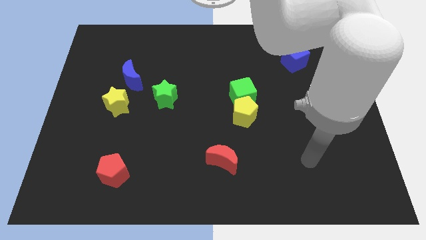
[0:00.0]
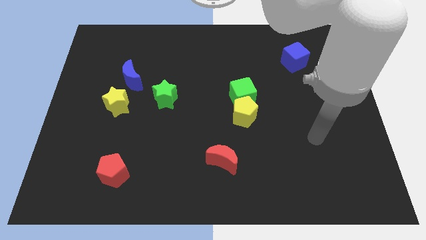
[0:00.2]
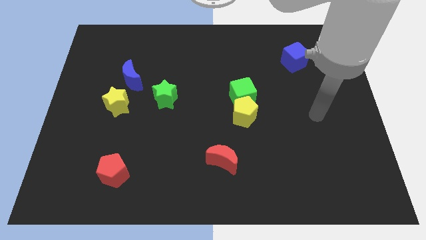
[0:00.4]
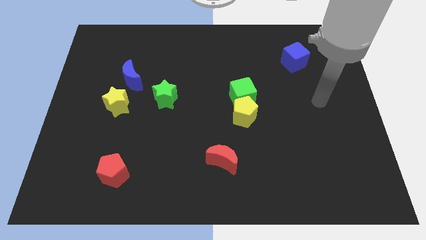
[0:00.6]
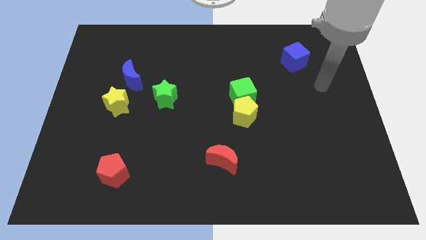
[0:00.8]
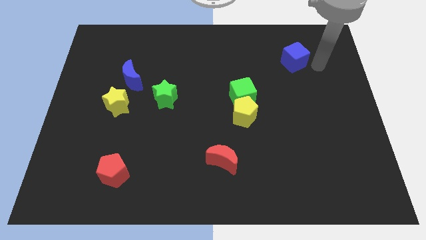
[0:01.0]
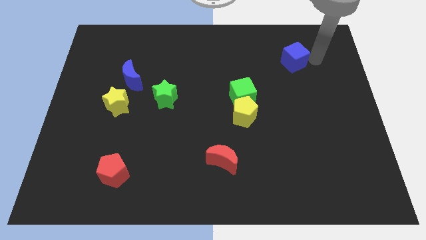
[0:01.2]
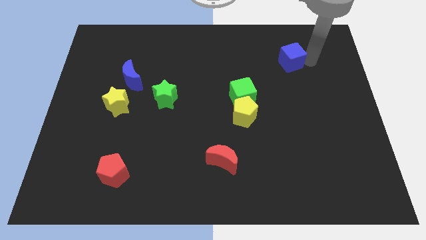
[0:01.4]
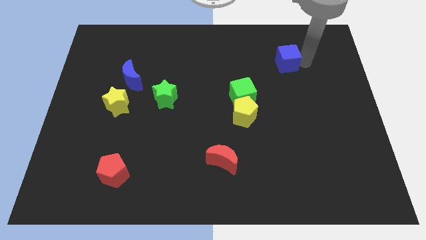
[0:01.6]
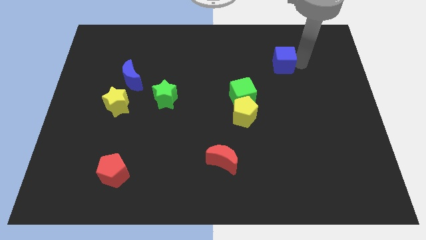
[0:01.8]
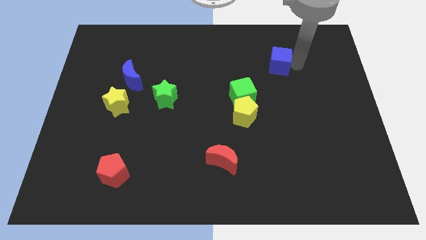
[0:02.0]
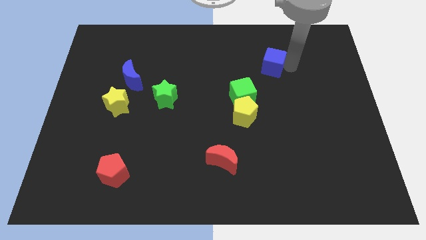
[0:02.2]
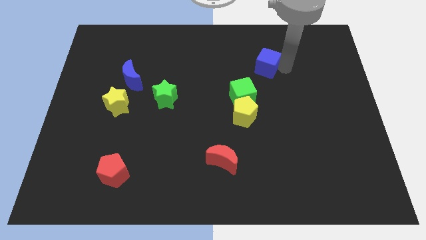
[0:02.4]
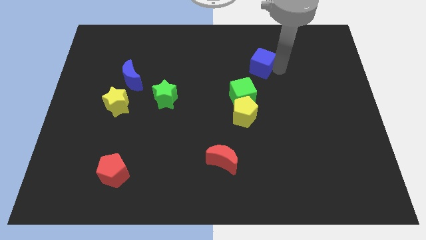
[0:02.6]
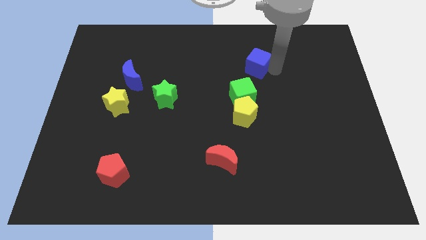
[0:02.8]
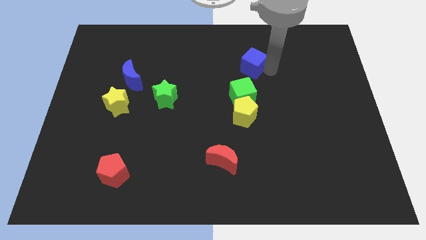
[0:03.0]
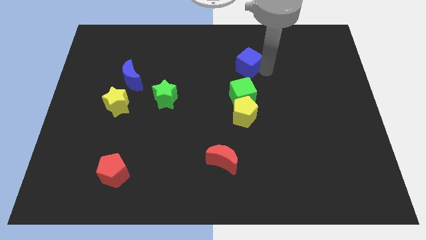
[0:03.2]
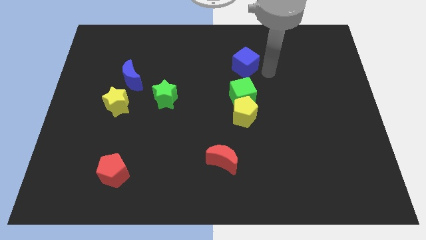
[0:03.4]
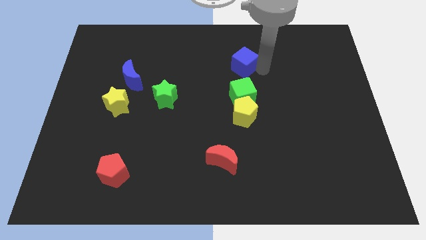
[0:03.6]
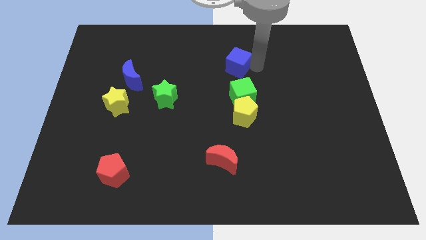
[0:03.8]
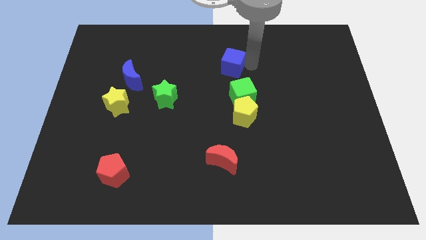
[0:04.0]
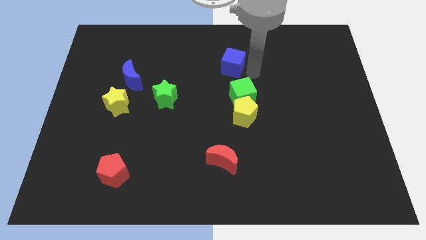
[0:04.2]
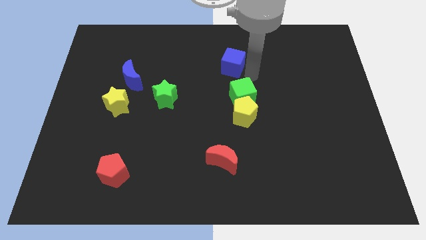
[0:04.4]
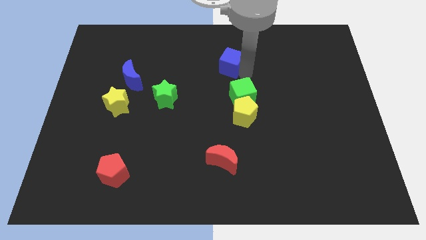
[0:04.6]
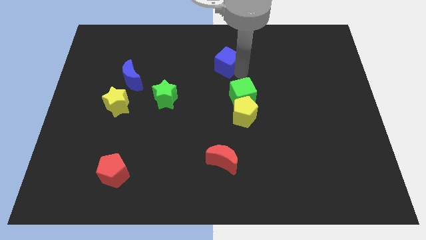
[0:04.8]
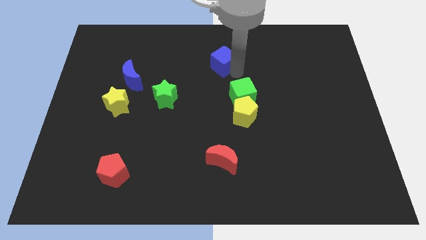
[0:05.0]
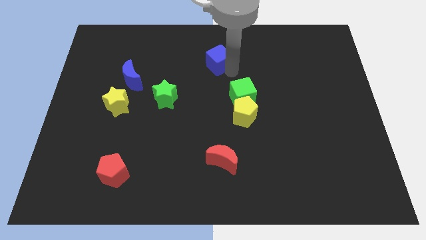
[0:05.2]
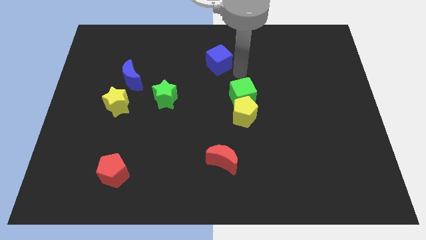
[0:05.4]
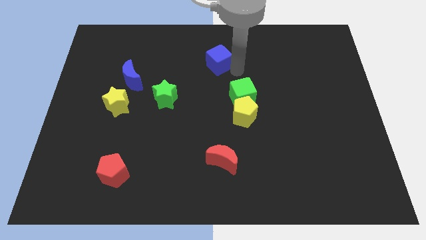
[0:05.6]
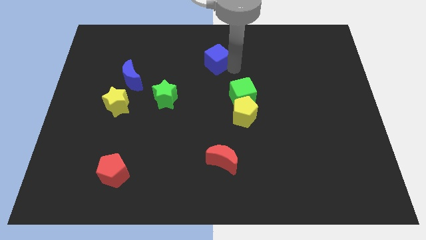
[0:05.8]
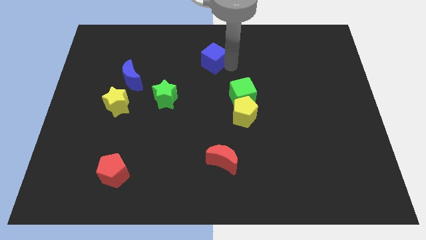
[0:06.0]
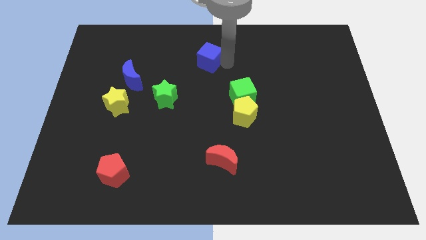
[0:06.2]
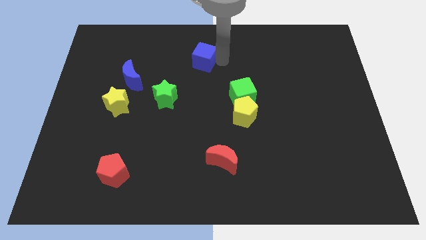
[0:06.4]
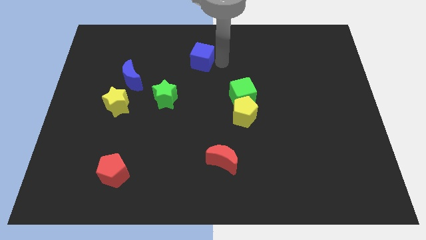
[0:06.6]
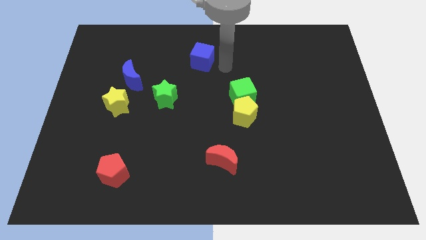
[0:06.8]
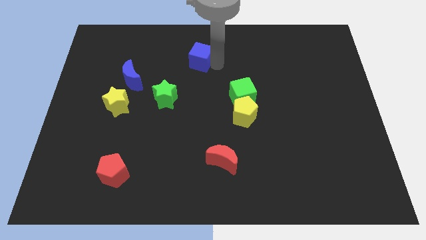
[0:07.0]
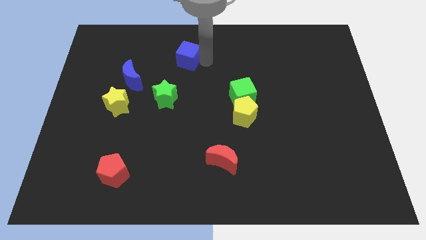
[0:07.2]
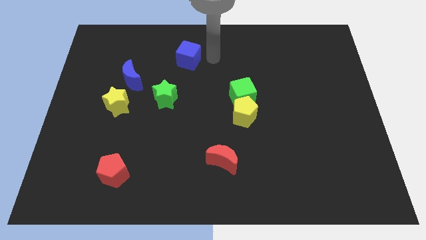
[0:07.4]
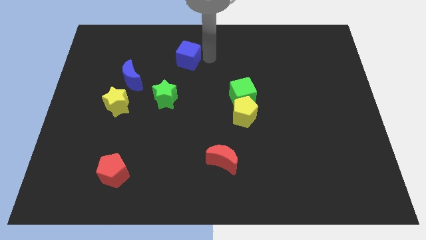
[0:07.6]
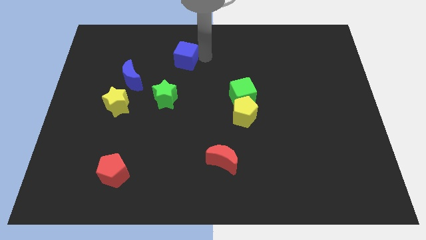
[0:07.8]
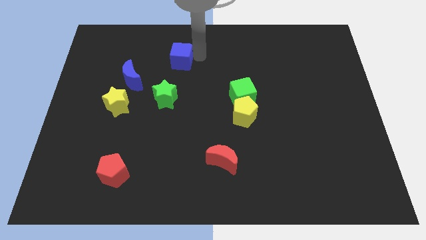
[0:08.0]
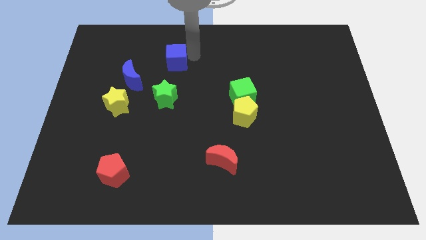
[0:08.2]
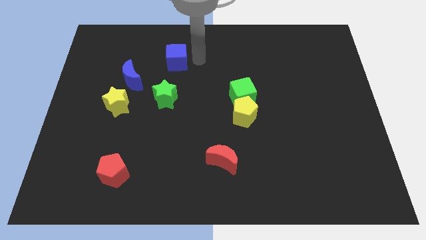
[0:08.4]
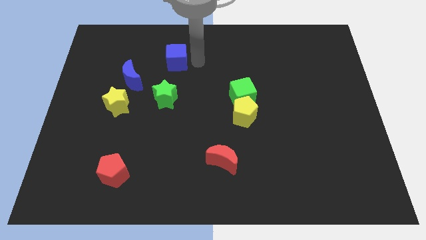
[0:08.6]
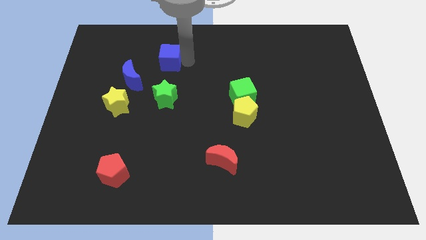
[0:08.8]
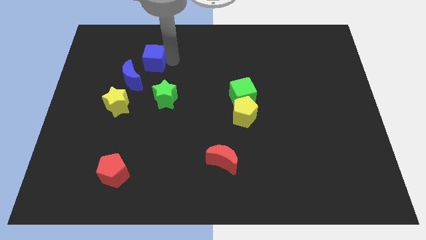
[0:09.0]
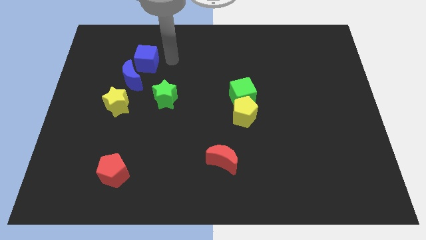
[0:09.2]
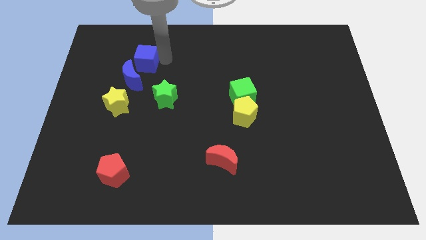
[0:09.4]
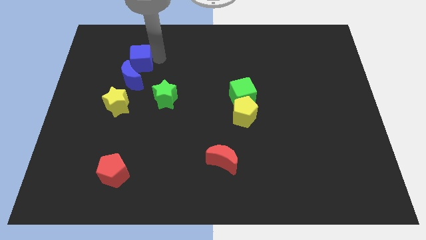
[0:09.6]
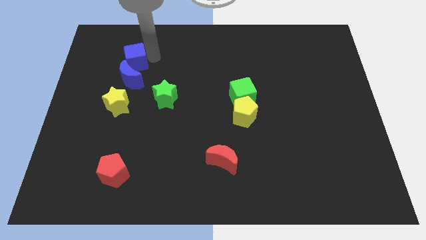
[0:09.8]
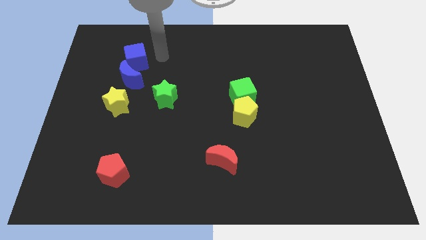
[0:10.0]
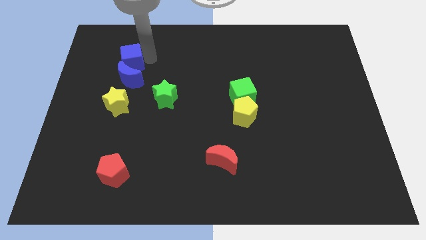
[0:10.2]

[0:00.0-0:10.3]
slide the blue cube to the top left side of the blue moon

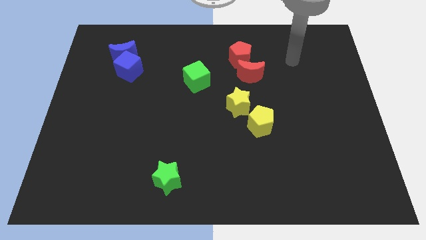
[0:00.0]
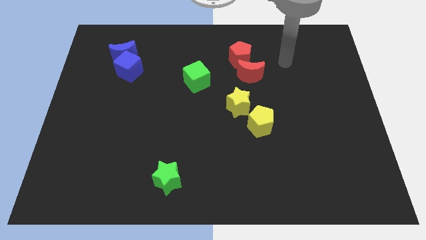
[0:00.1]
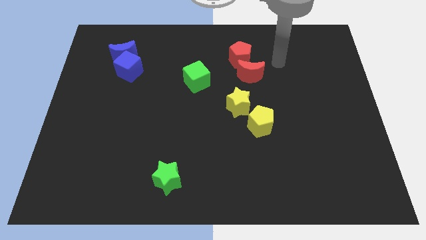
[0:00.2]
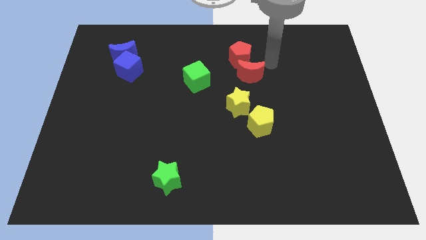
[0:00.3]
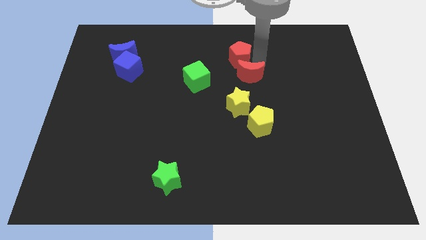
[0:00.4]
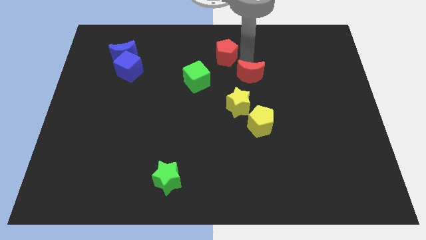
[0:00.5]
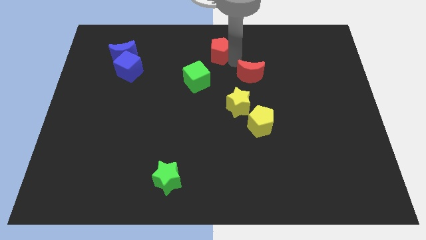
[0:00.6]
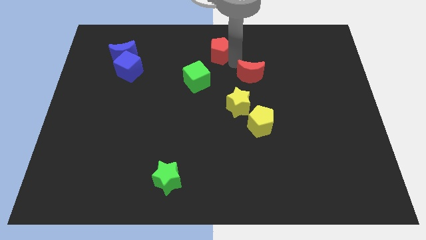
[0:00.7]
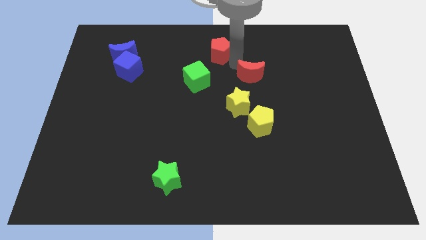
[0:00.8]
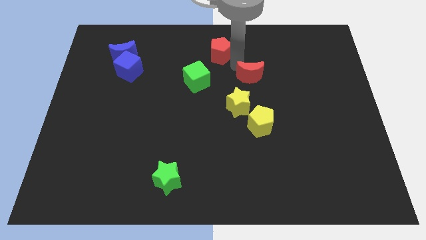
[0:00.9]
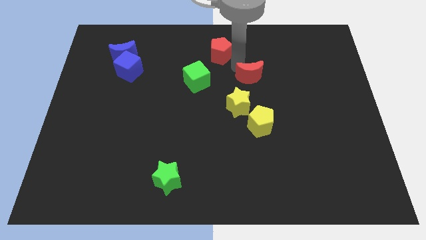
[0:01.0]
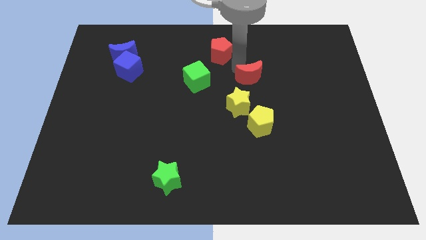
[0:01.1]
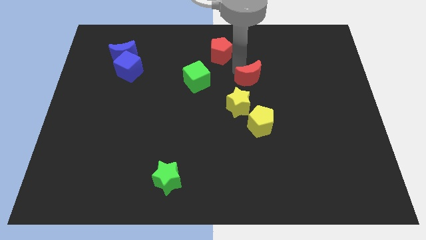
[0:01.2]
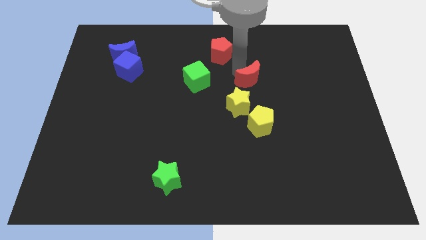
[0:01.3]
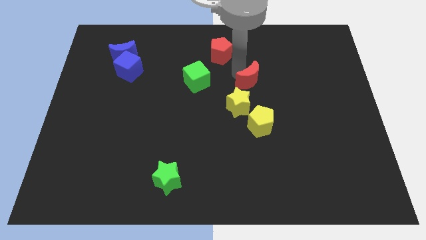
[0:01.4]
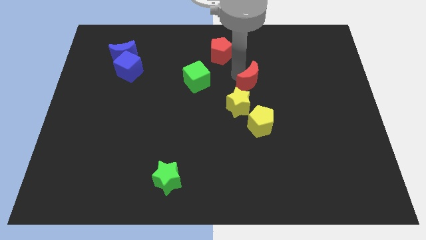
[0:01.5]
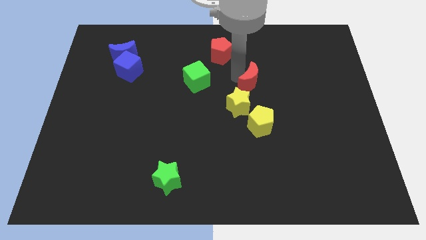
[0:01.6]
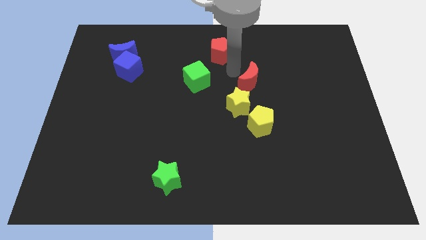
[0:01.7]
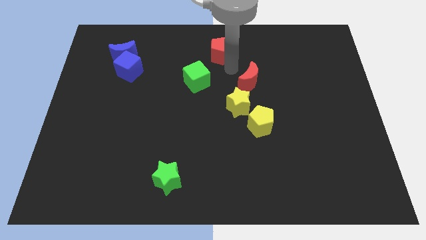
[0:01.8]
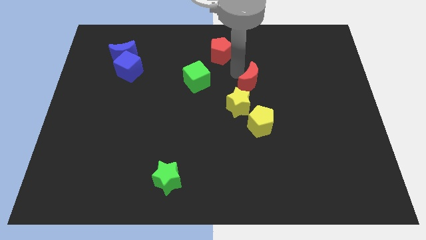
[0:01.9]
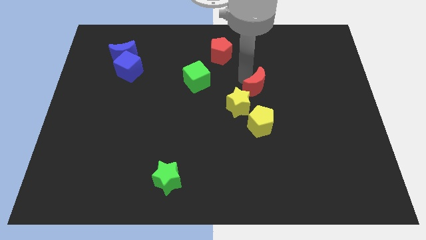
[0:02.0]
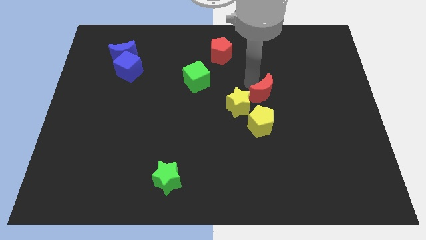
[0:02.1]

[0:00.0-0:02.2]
push the red moon just right of the yellow star
